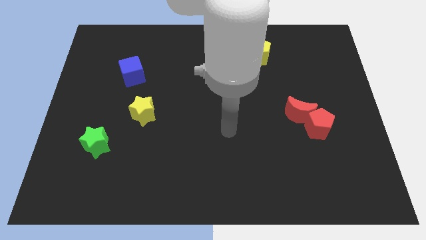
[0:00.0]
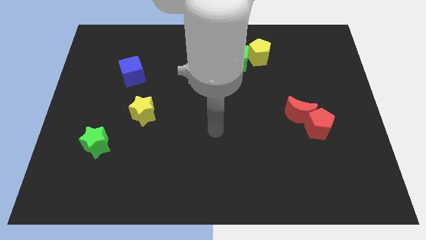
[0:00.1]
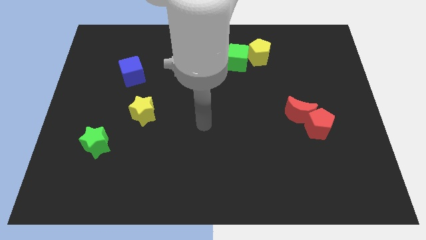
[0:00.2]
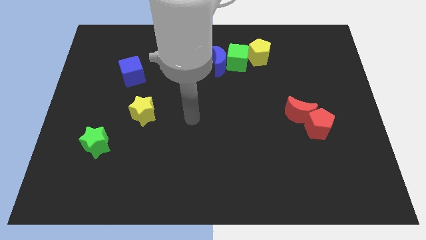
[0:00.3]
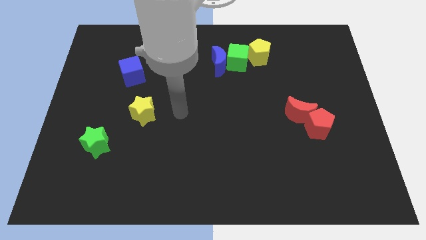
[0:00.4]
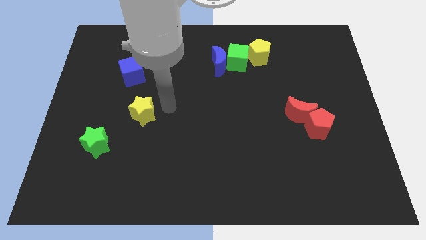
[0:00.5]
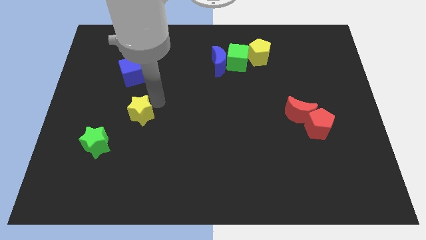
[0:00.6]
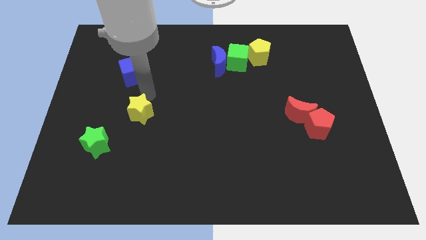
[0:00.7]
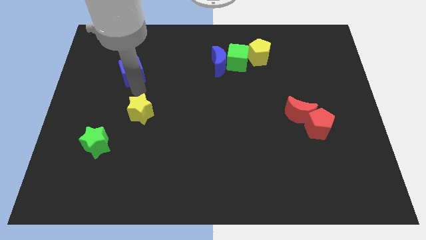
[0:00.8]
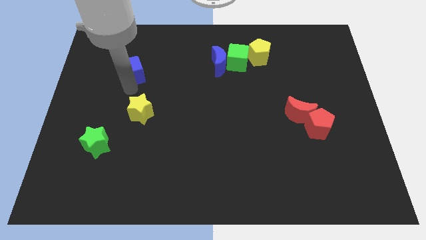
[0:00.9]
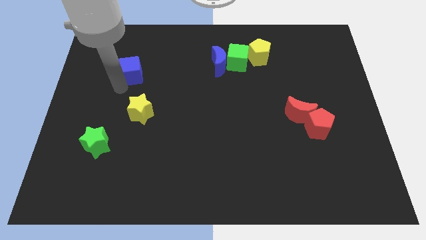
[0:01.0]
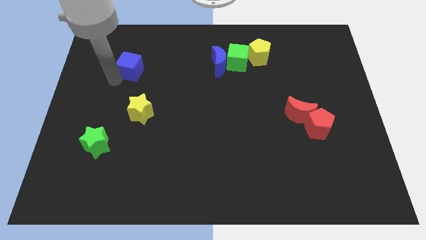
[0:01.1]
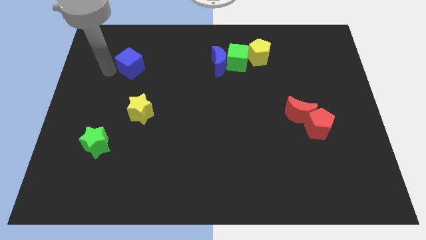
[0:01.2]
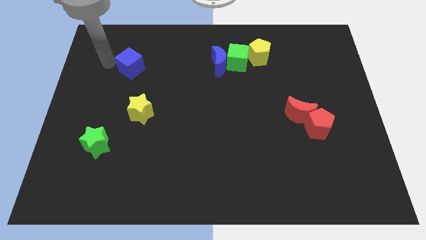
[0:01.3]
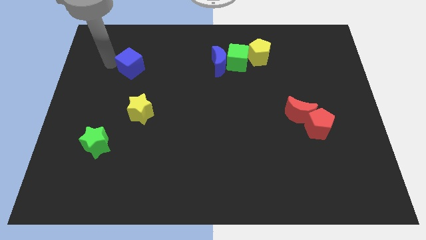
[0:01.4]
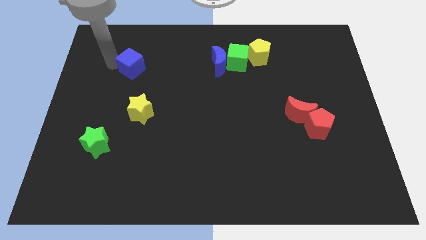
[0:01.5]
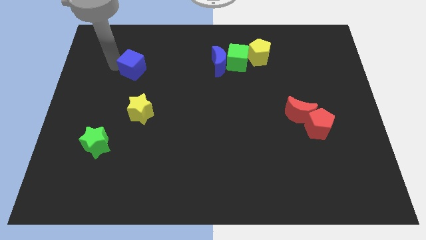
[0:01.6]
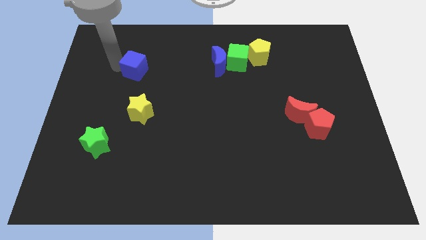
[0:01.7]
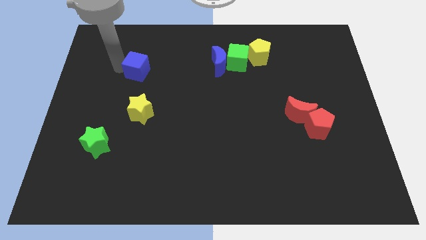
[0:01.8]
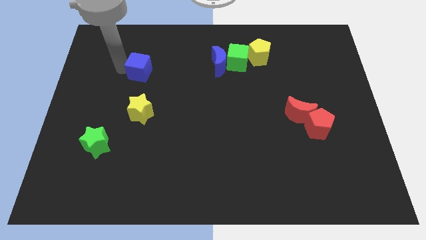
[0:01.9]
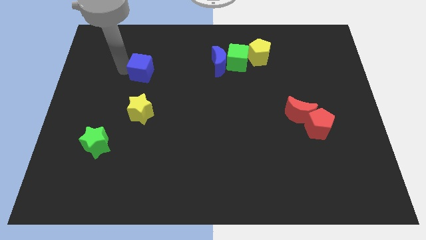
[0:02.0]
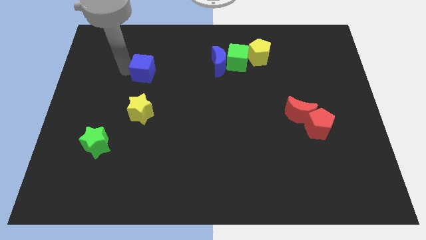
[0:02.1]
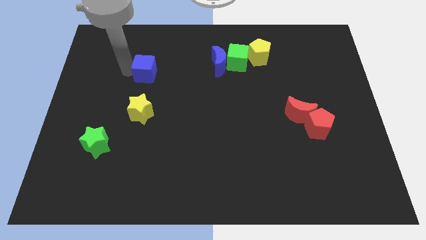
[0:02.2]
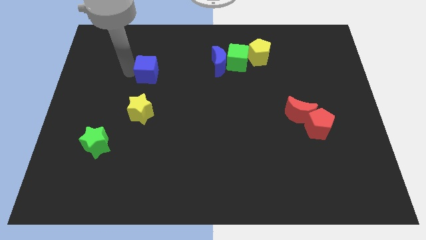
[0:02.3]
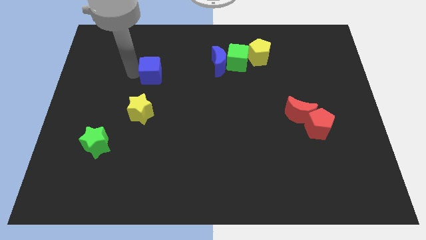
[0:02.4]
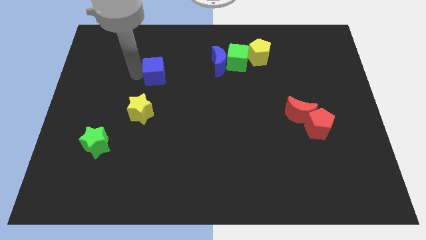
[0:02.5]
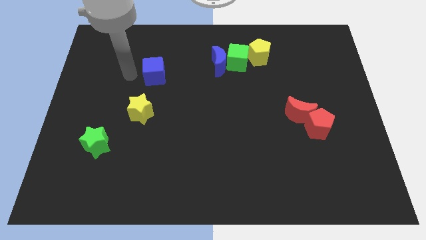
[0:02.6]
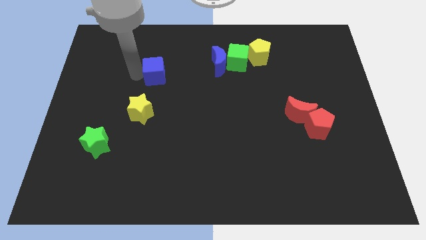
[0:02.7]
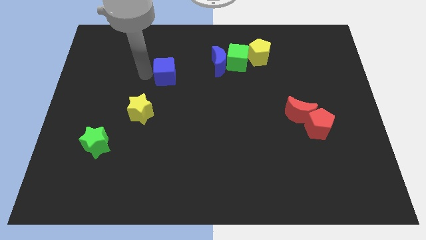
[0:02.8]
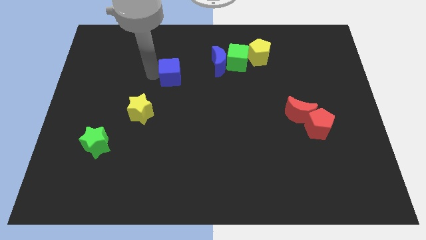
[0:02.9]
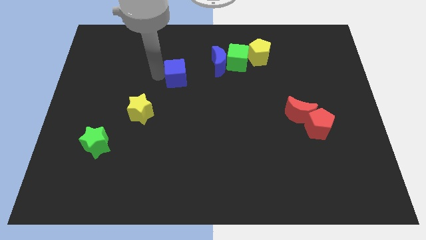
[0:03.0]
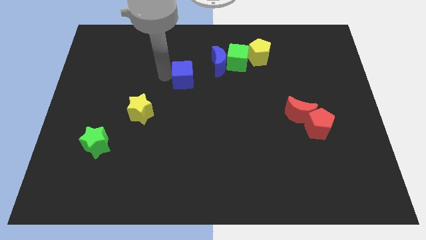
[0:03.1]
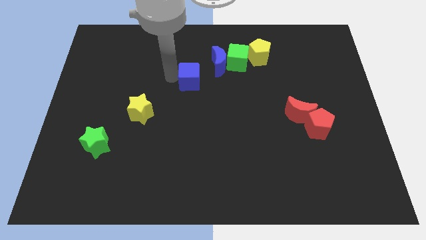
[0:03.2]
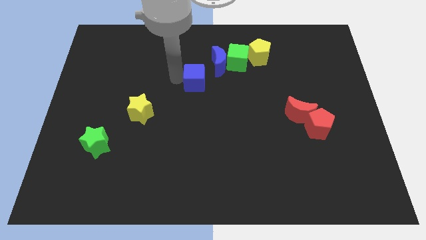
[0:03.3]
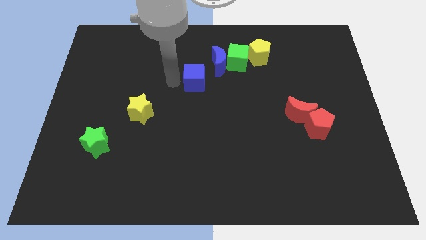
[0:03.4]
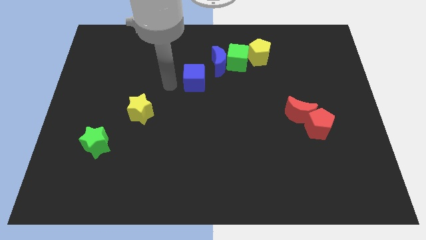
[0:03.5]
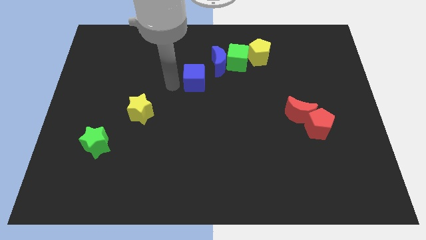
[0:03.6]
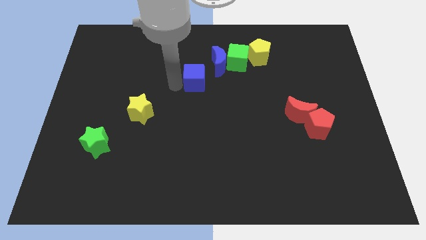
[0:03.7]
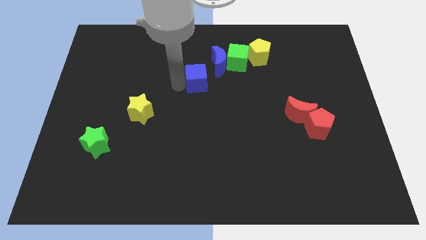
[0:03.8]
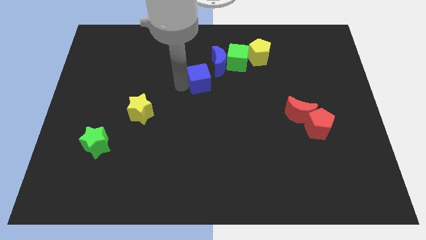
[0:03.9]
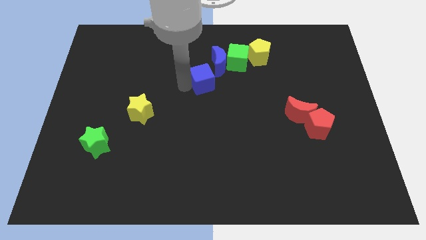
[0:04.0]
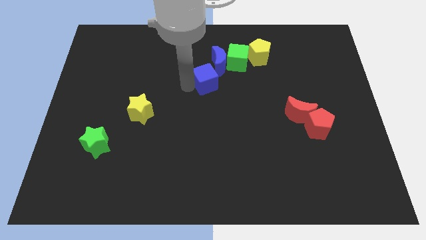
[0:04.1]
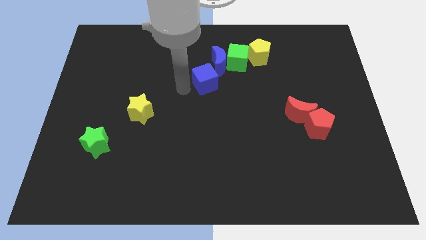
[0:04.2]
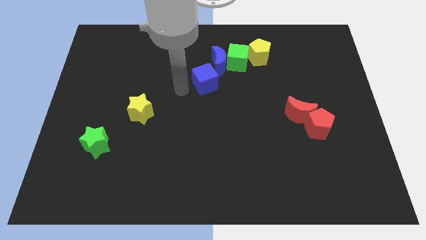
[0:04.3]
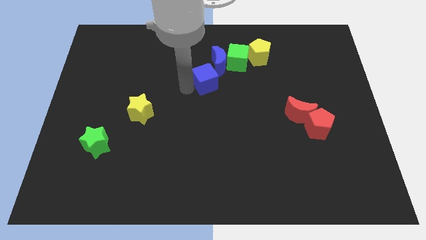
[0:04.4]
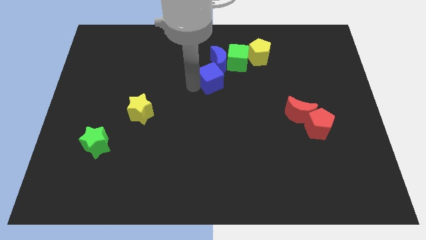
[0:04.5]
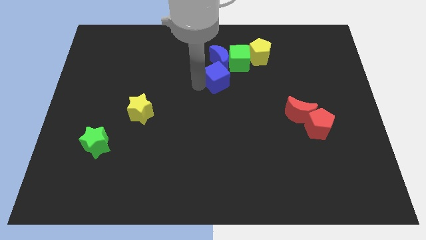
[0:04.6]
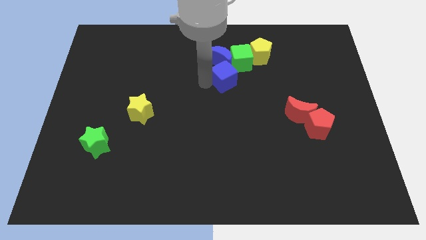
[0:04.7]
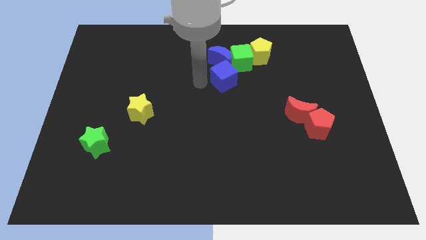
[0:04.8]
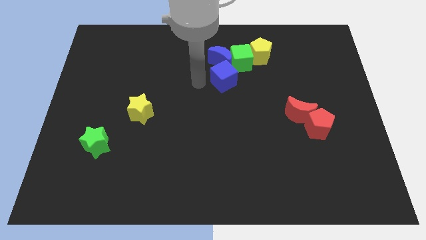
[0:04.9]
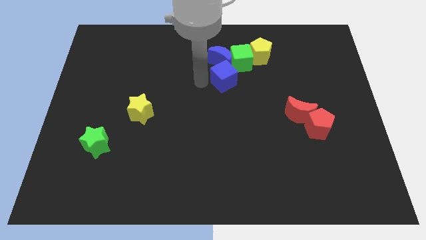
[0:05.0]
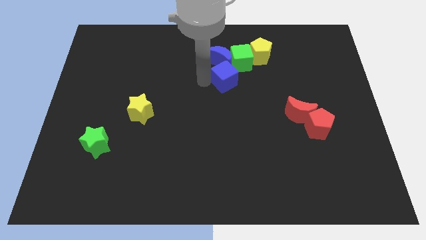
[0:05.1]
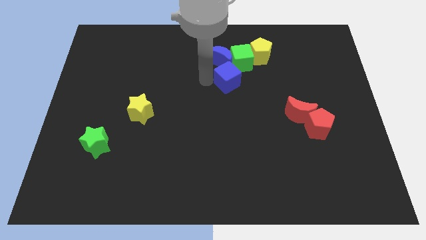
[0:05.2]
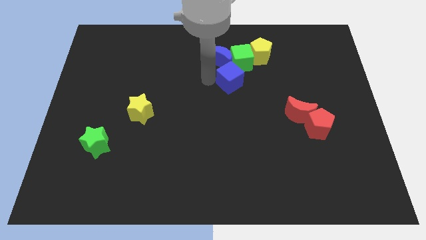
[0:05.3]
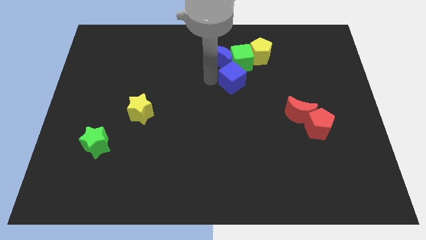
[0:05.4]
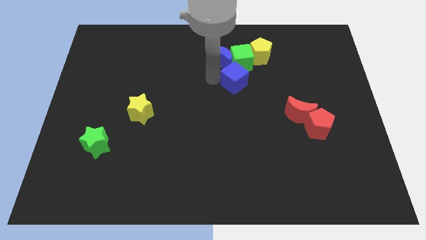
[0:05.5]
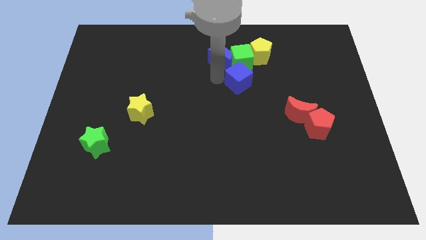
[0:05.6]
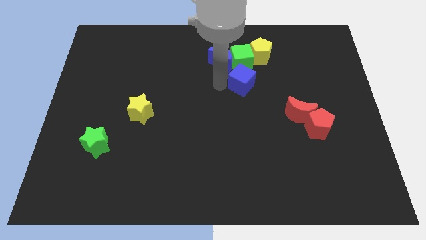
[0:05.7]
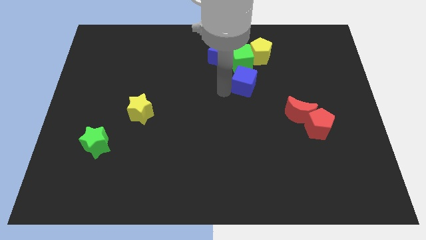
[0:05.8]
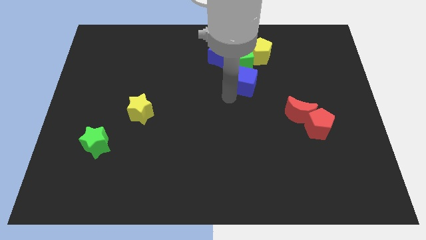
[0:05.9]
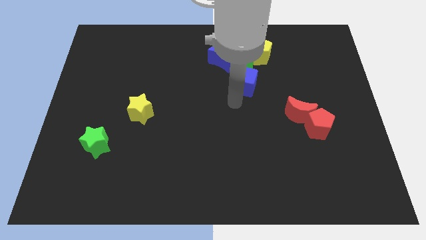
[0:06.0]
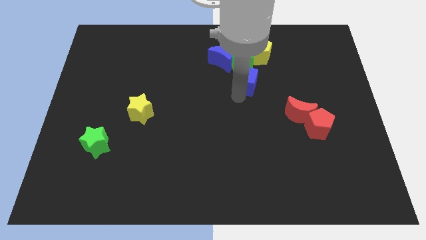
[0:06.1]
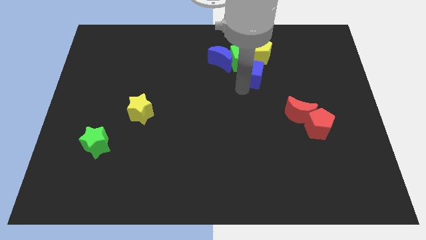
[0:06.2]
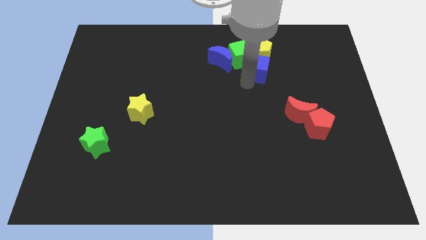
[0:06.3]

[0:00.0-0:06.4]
push the blue cube next to the yellow pentagon

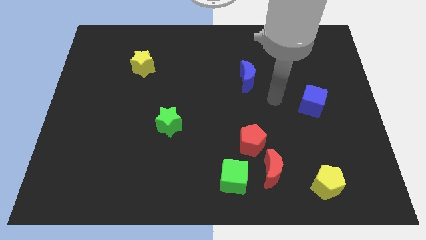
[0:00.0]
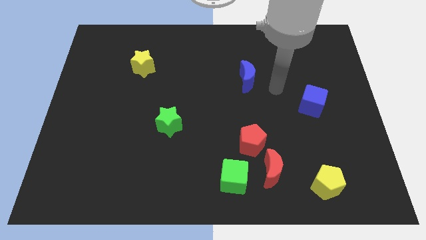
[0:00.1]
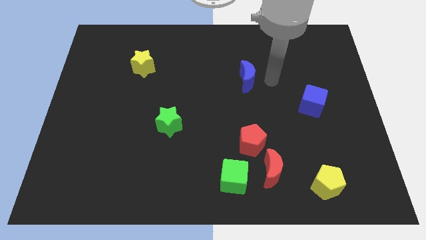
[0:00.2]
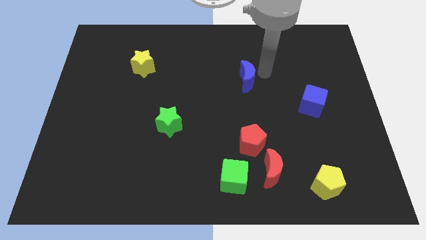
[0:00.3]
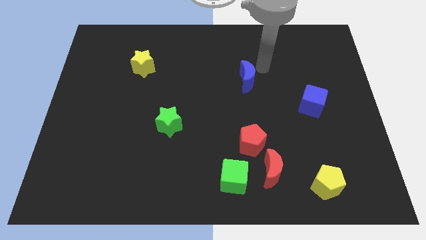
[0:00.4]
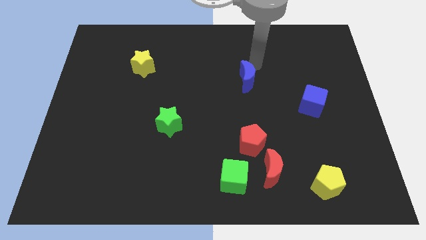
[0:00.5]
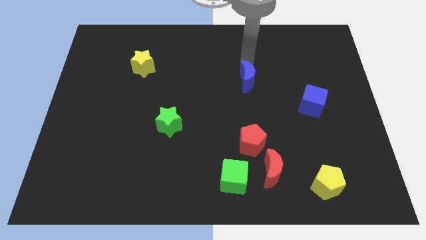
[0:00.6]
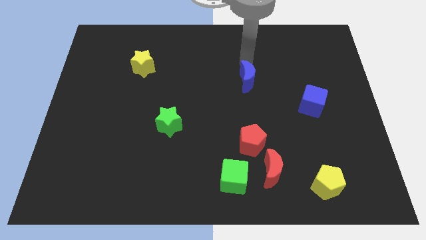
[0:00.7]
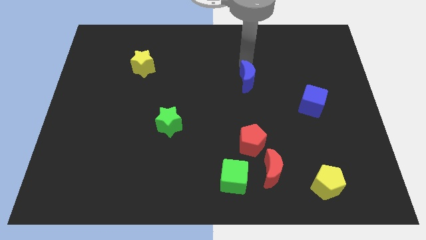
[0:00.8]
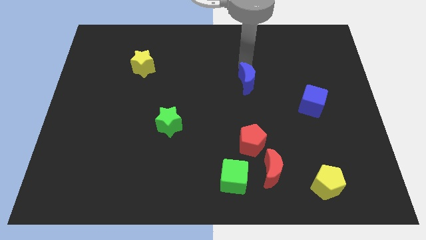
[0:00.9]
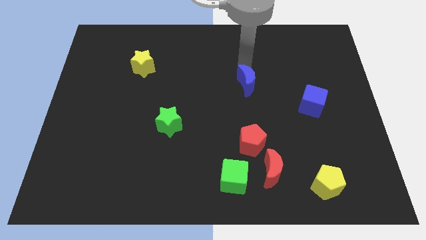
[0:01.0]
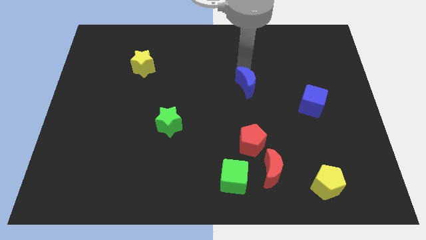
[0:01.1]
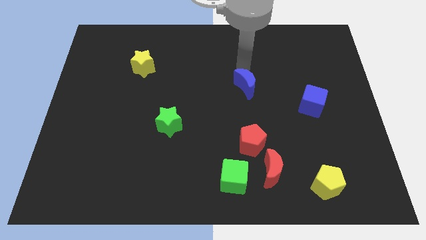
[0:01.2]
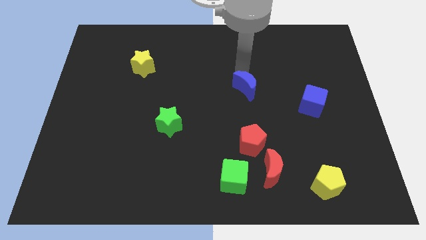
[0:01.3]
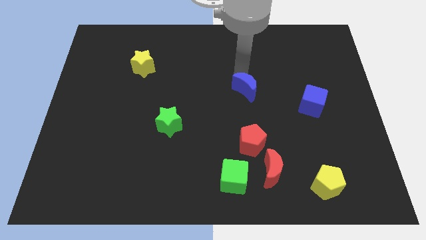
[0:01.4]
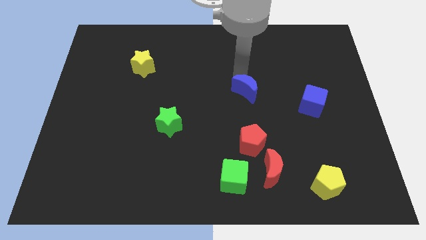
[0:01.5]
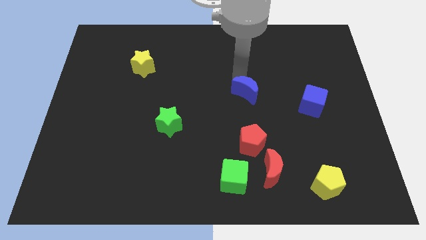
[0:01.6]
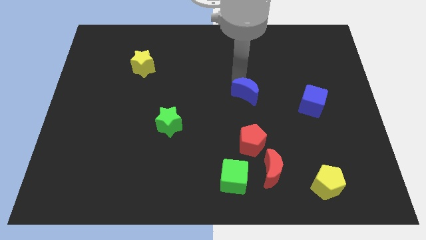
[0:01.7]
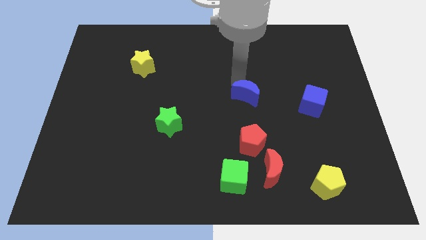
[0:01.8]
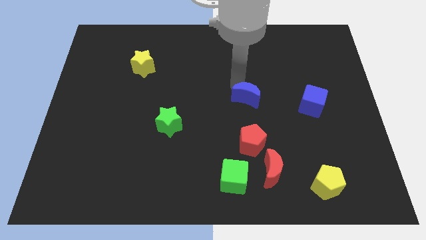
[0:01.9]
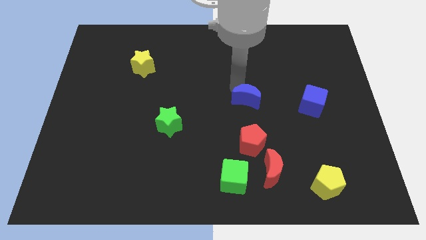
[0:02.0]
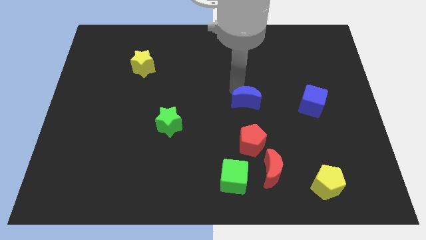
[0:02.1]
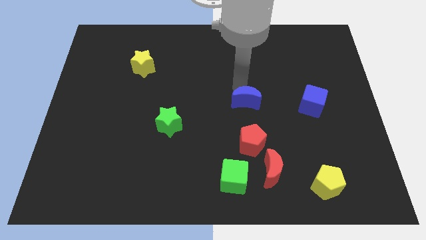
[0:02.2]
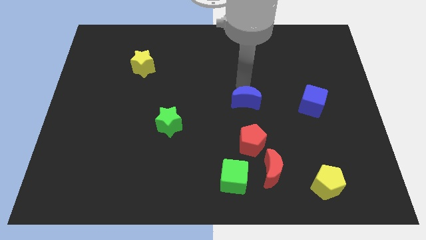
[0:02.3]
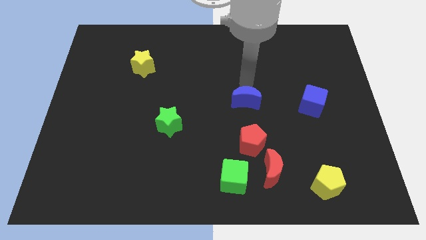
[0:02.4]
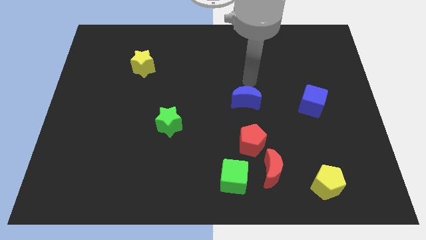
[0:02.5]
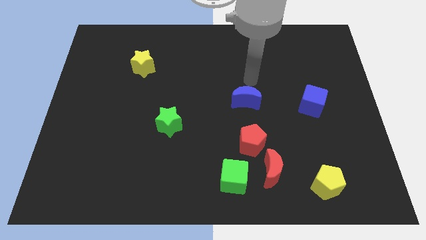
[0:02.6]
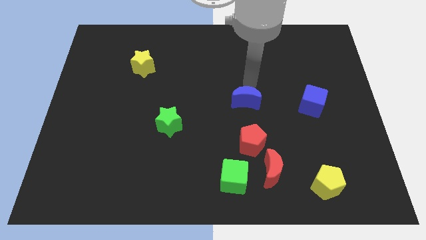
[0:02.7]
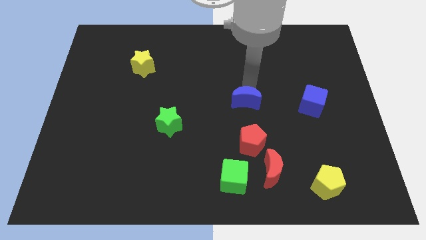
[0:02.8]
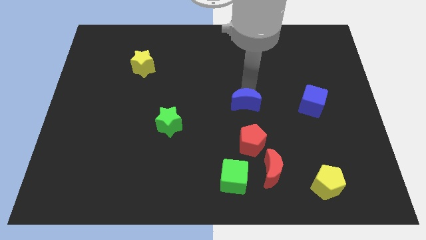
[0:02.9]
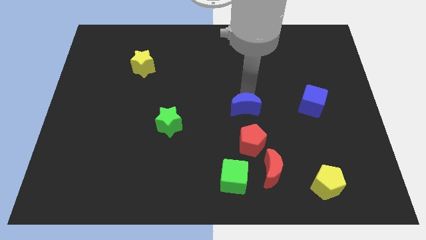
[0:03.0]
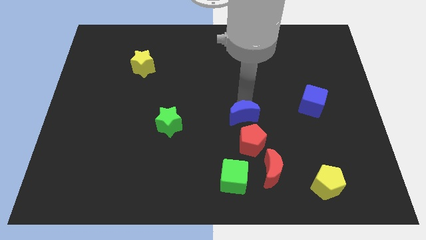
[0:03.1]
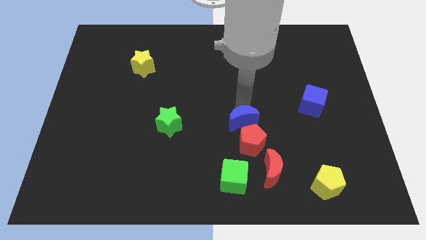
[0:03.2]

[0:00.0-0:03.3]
move the blue moon towards the red pentagon
